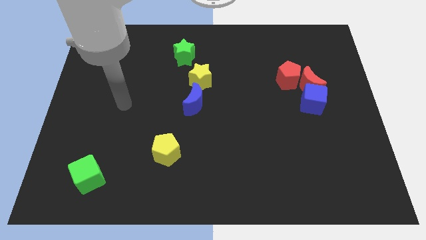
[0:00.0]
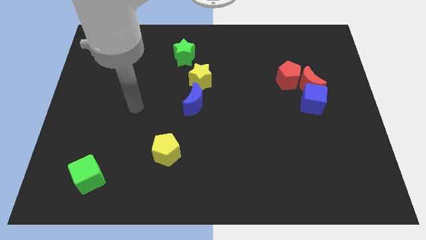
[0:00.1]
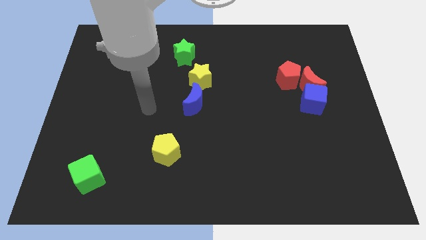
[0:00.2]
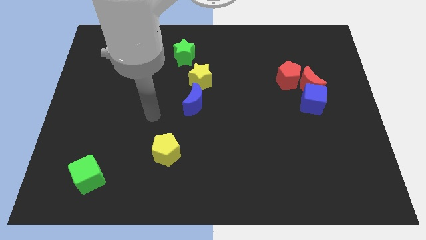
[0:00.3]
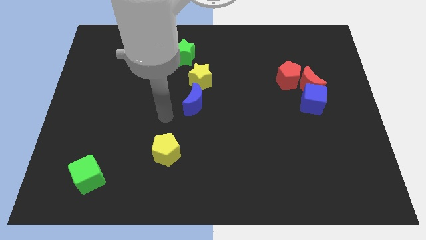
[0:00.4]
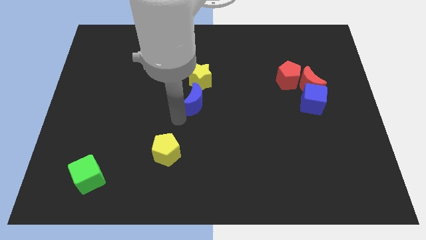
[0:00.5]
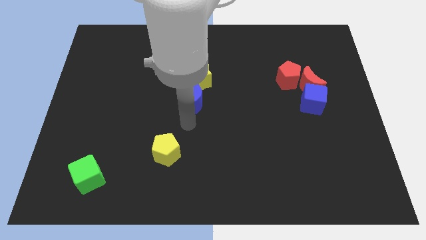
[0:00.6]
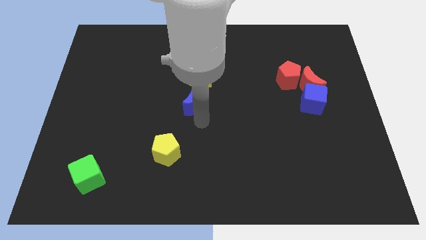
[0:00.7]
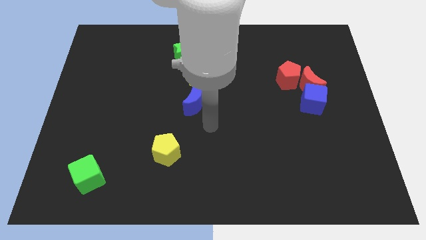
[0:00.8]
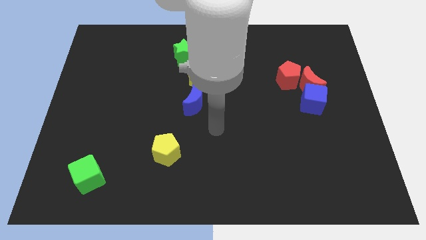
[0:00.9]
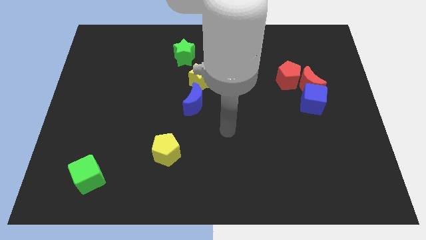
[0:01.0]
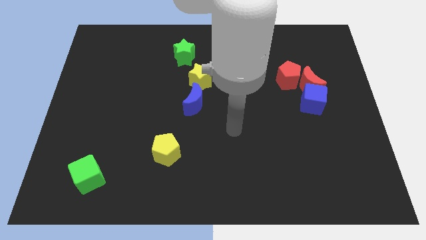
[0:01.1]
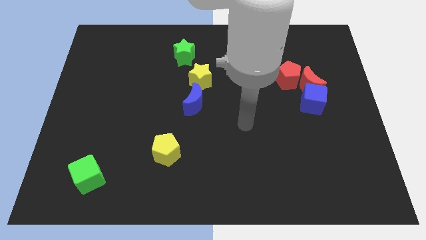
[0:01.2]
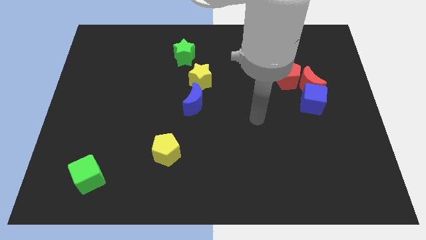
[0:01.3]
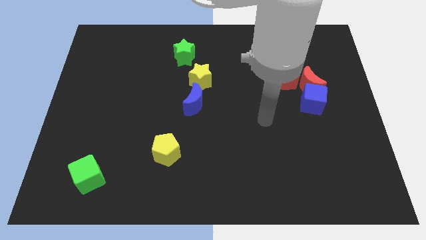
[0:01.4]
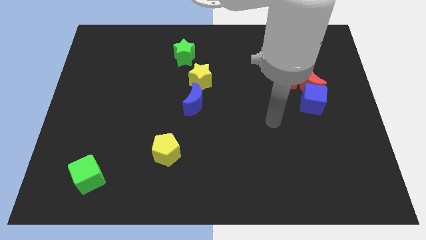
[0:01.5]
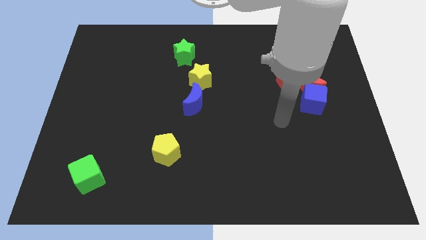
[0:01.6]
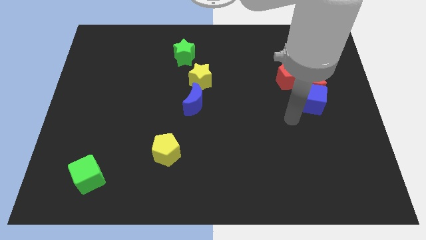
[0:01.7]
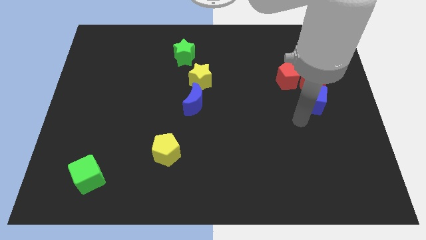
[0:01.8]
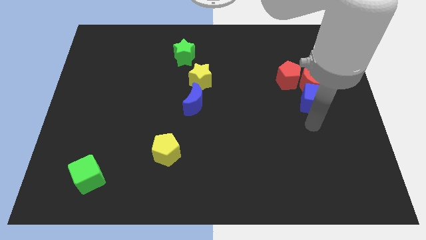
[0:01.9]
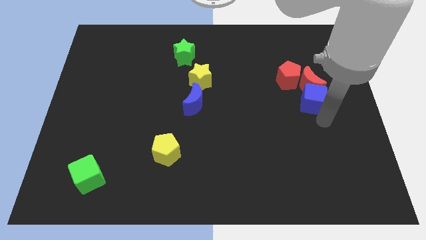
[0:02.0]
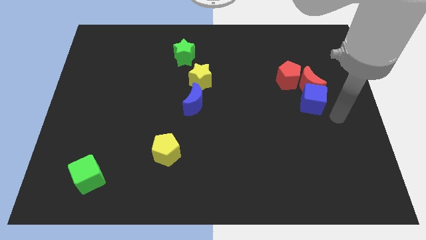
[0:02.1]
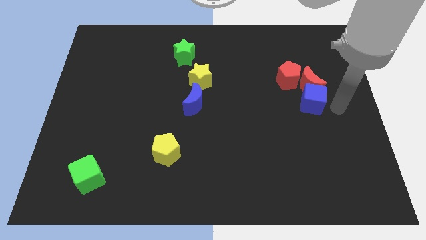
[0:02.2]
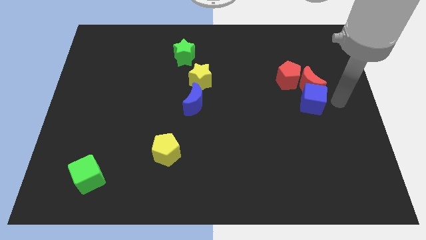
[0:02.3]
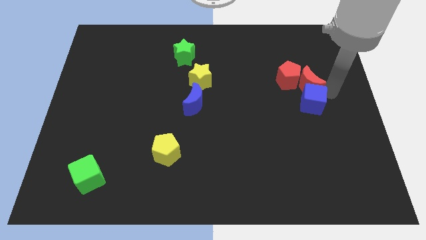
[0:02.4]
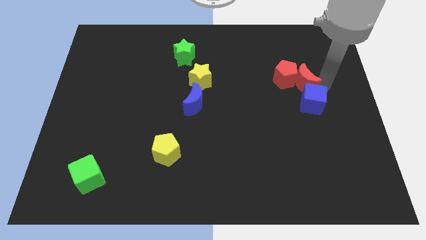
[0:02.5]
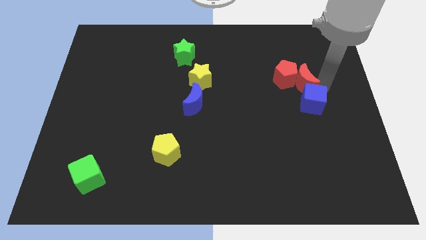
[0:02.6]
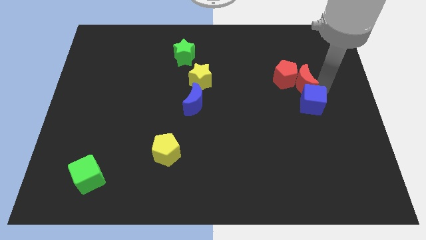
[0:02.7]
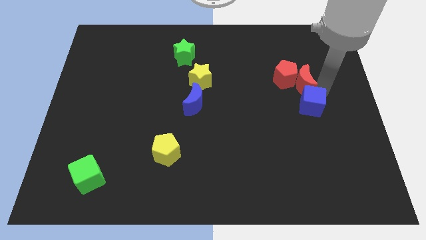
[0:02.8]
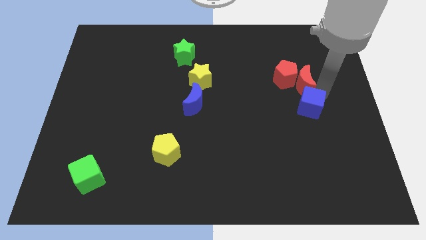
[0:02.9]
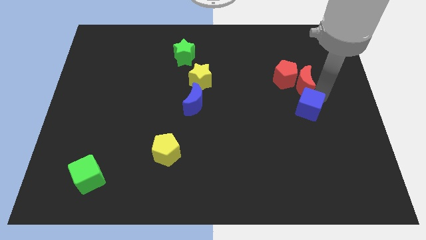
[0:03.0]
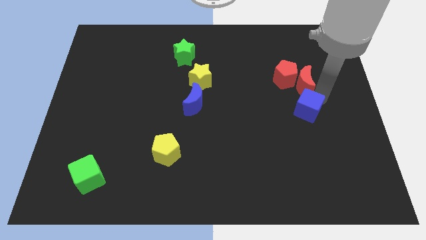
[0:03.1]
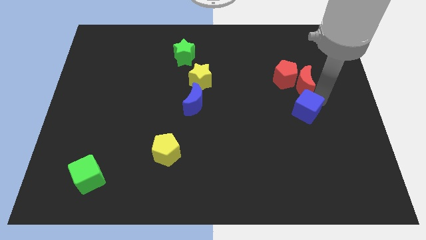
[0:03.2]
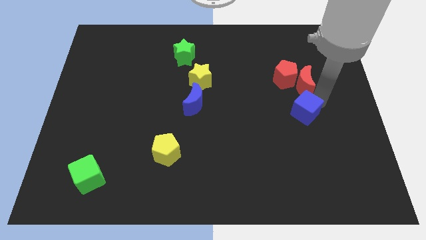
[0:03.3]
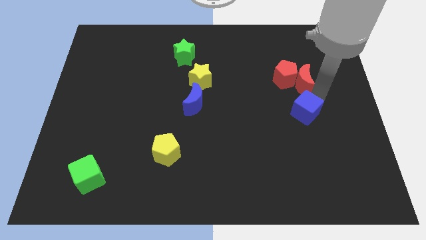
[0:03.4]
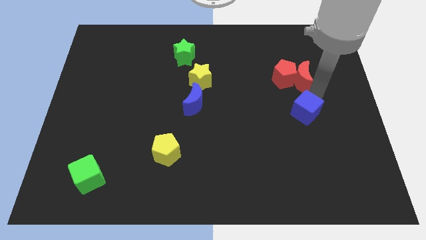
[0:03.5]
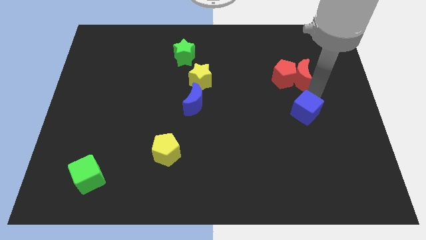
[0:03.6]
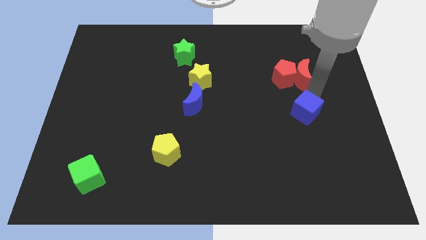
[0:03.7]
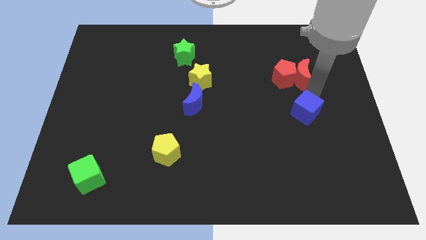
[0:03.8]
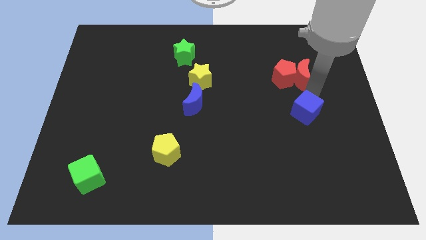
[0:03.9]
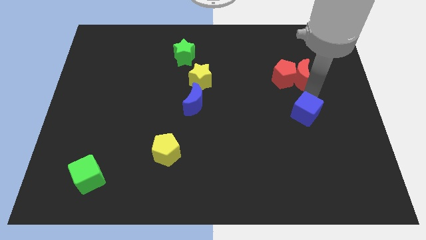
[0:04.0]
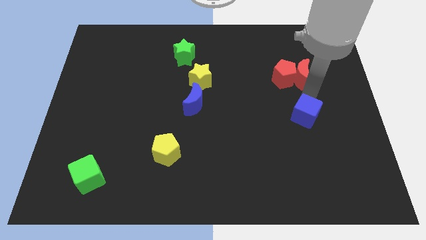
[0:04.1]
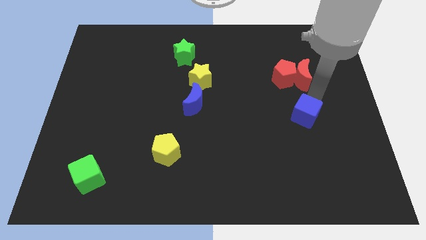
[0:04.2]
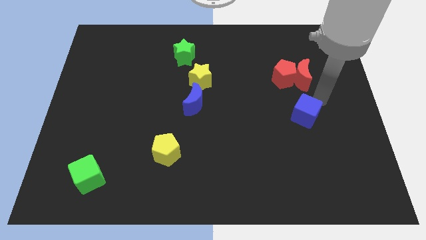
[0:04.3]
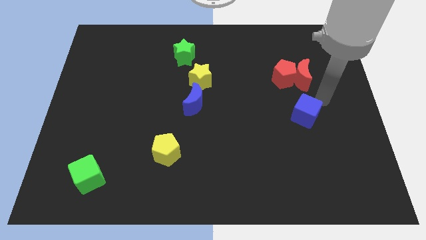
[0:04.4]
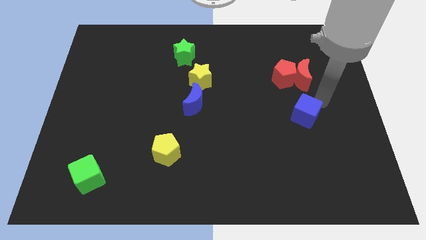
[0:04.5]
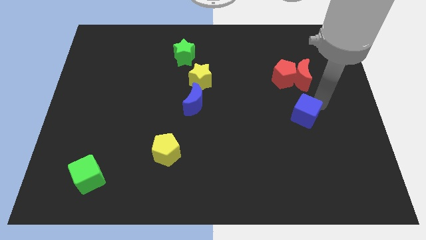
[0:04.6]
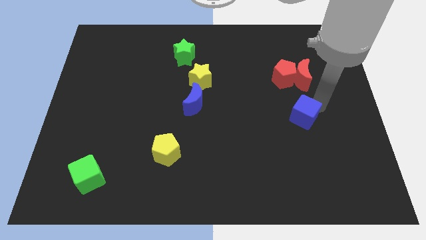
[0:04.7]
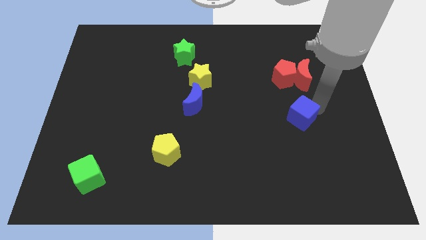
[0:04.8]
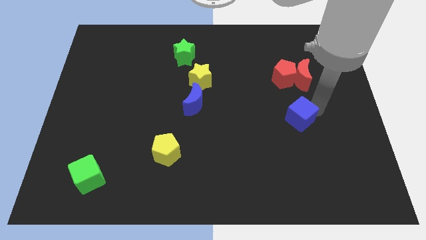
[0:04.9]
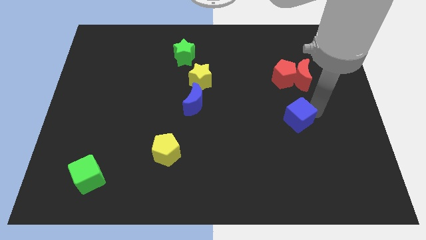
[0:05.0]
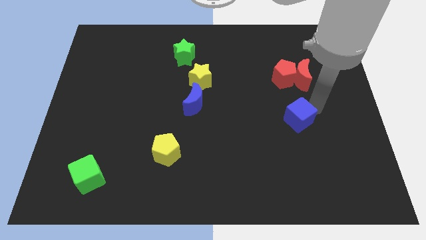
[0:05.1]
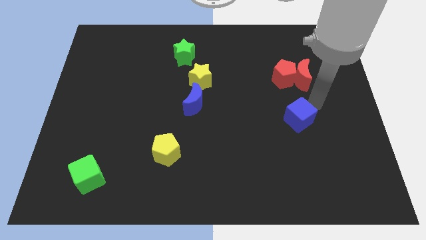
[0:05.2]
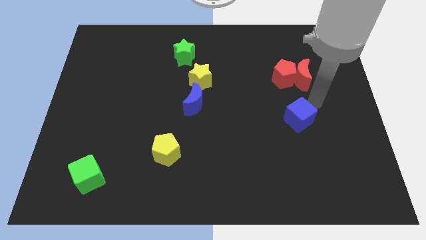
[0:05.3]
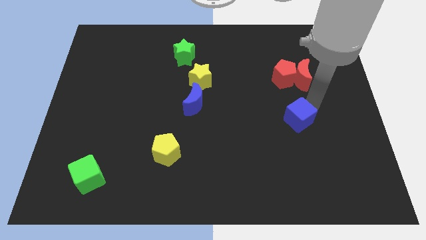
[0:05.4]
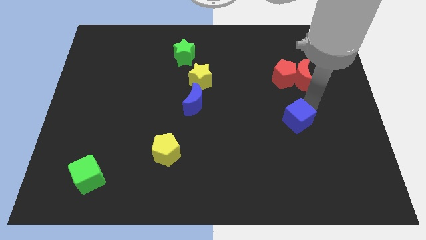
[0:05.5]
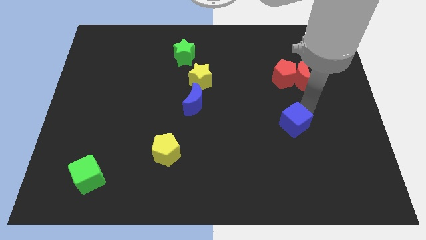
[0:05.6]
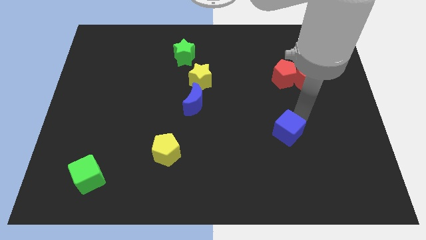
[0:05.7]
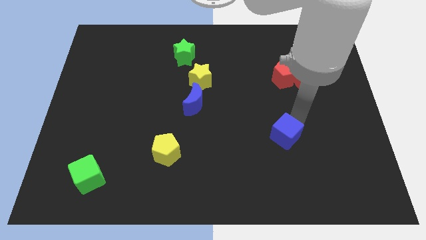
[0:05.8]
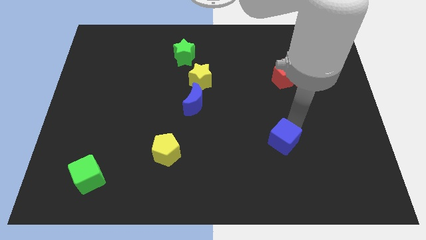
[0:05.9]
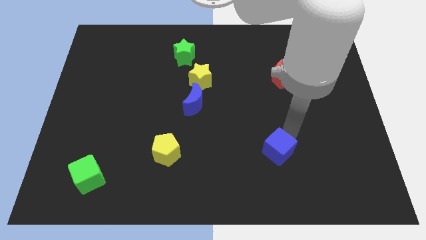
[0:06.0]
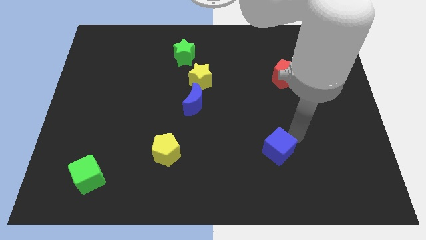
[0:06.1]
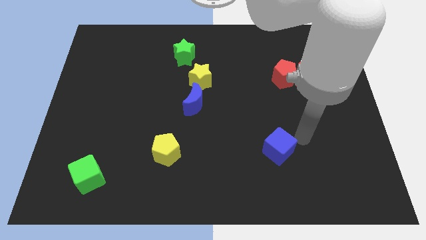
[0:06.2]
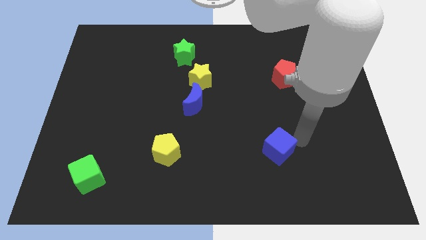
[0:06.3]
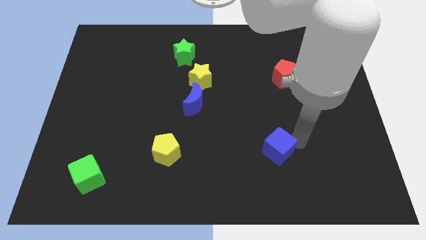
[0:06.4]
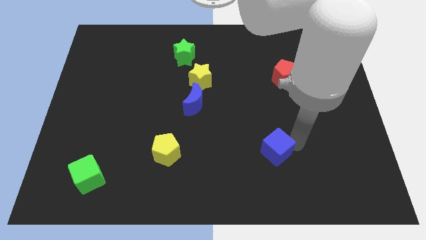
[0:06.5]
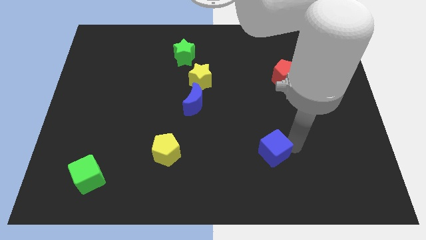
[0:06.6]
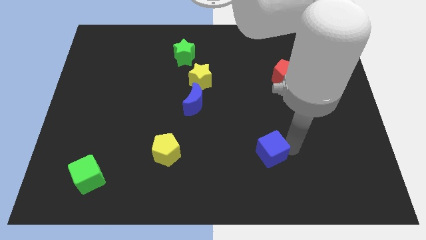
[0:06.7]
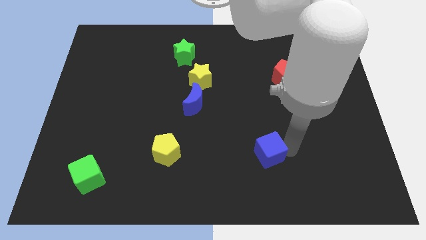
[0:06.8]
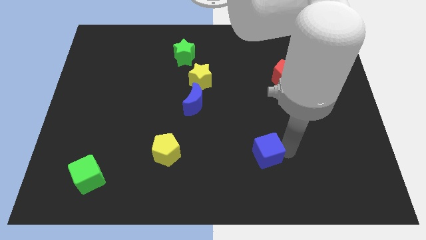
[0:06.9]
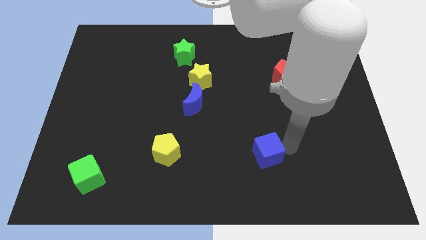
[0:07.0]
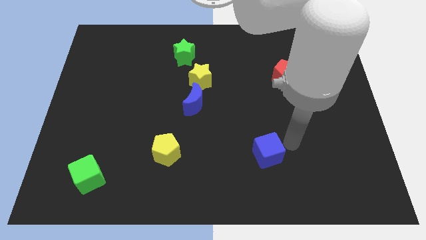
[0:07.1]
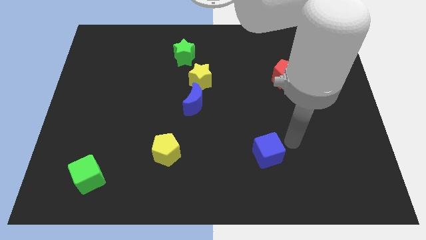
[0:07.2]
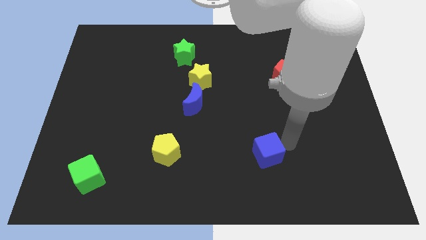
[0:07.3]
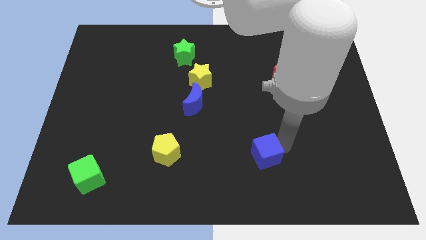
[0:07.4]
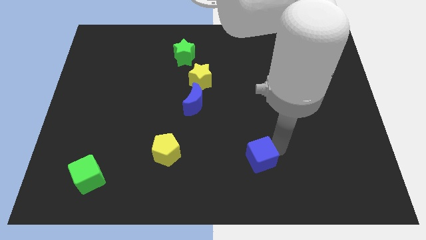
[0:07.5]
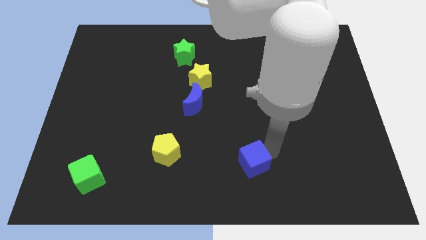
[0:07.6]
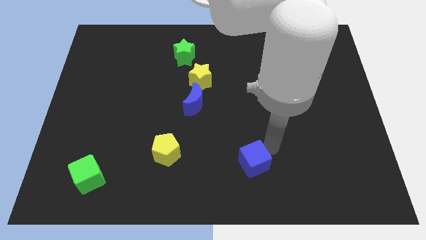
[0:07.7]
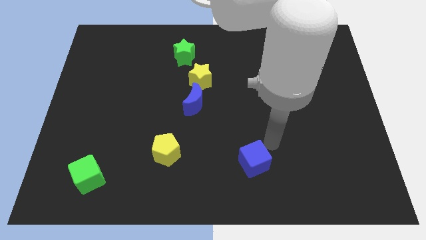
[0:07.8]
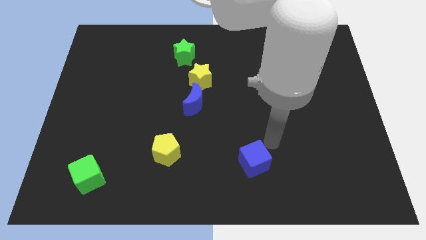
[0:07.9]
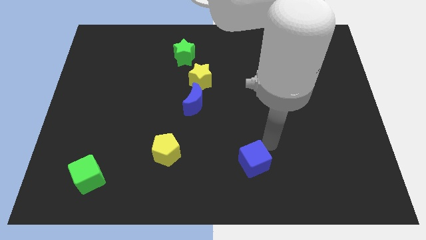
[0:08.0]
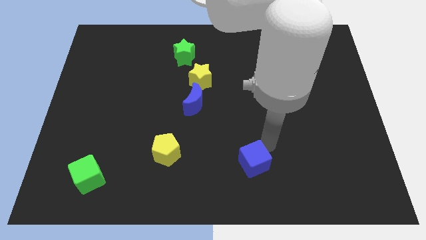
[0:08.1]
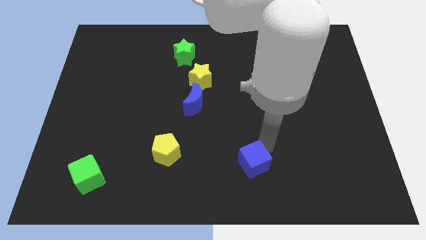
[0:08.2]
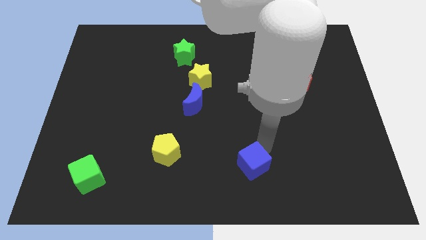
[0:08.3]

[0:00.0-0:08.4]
put the blue cube to the bottom
